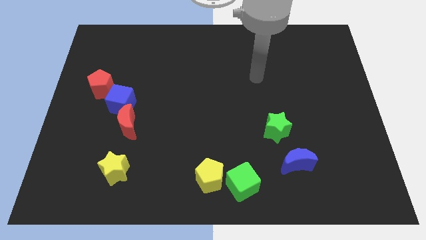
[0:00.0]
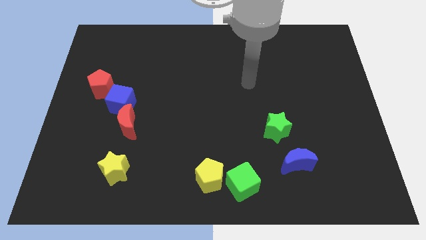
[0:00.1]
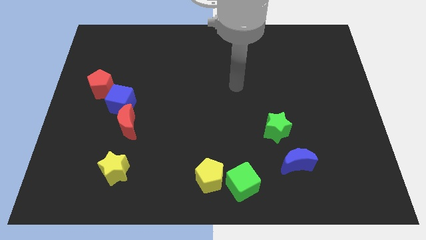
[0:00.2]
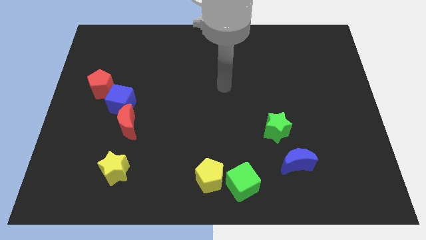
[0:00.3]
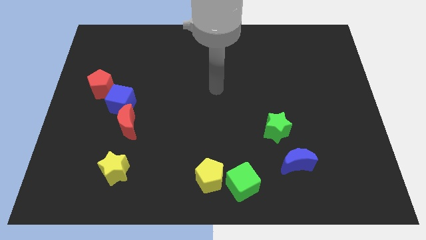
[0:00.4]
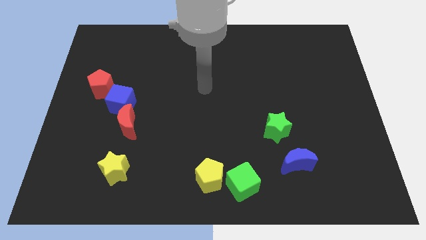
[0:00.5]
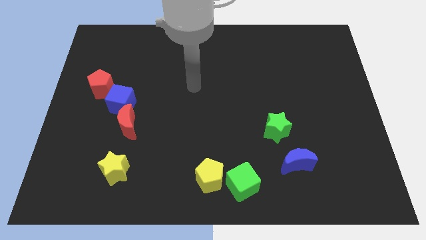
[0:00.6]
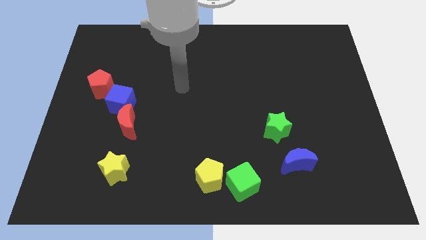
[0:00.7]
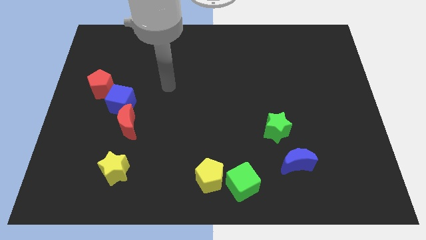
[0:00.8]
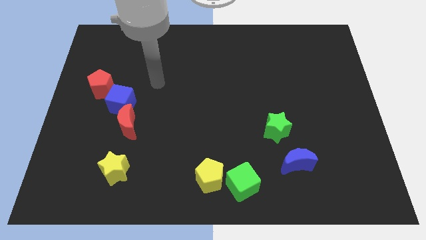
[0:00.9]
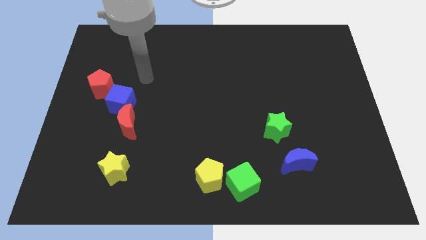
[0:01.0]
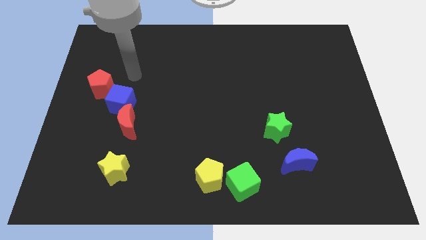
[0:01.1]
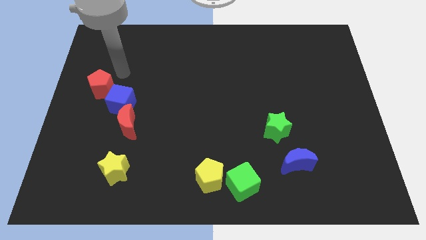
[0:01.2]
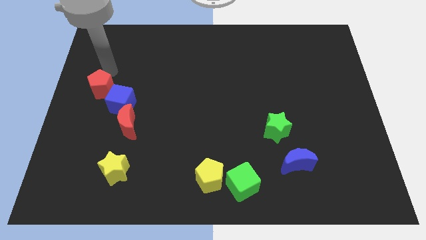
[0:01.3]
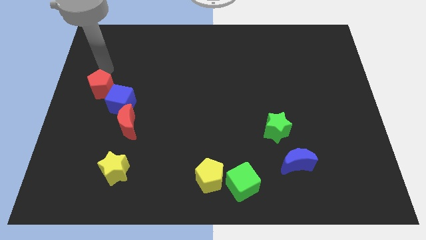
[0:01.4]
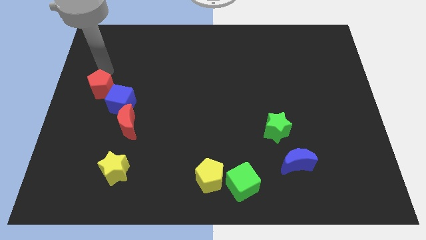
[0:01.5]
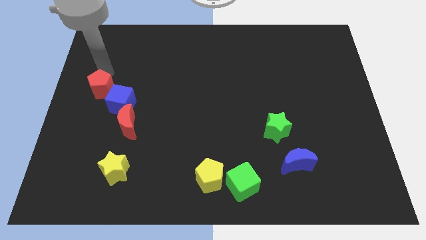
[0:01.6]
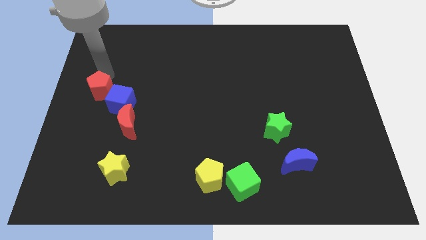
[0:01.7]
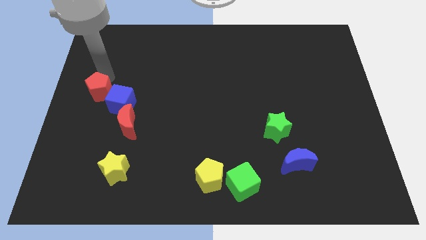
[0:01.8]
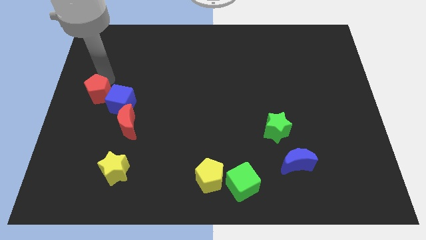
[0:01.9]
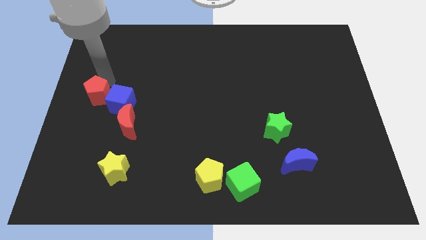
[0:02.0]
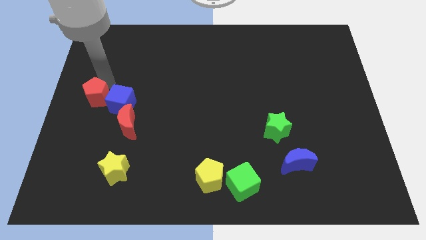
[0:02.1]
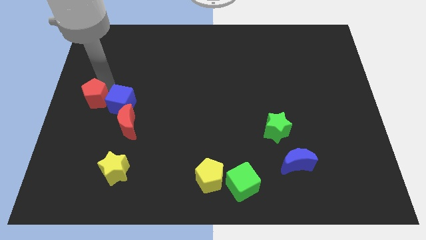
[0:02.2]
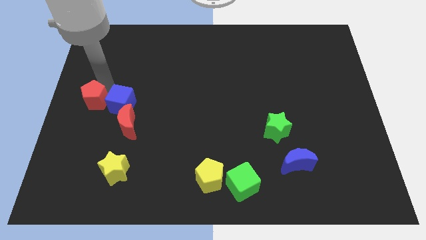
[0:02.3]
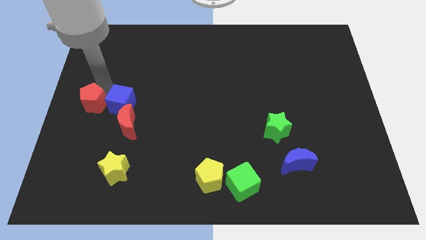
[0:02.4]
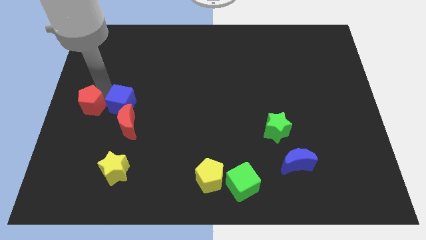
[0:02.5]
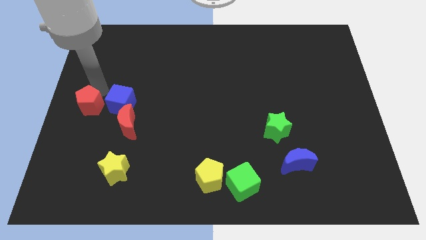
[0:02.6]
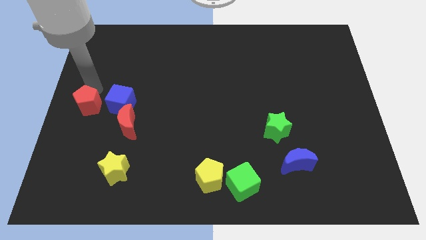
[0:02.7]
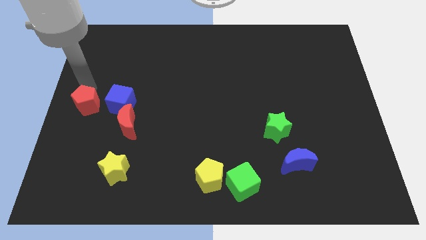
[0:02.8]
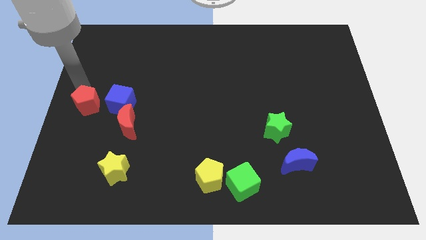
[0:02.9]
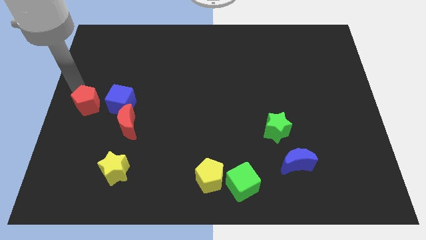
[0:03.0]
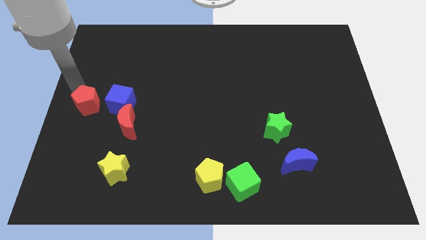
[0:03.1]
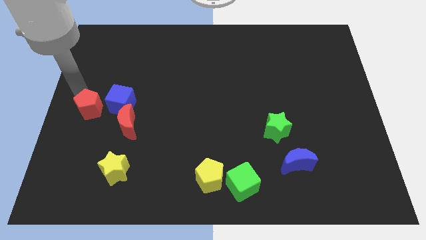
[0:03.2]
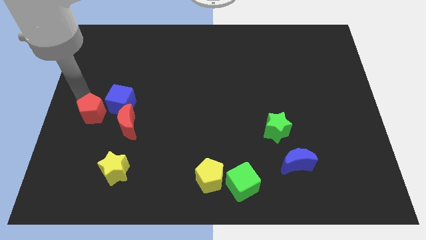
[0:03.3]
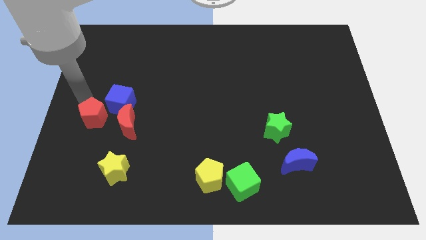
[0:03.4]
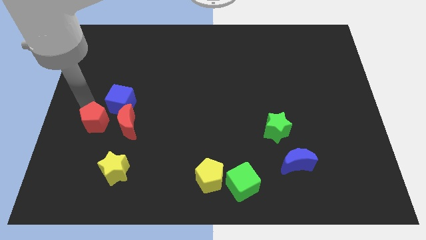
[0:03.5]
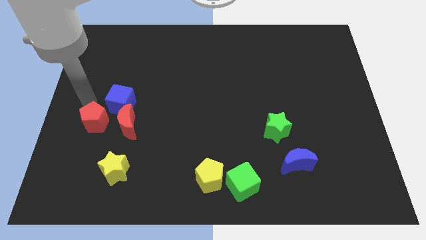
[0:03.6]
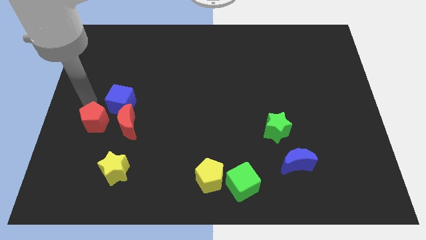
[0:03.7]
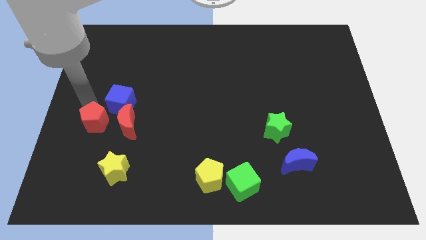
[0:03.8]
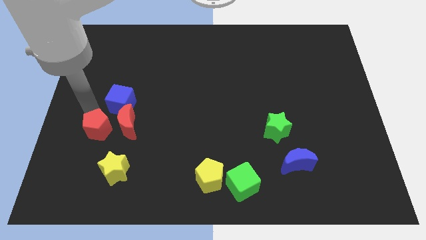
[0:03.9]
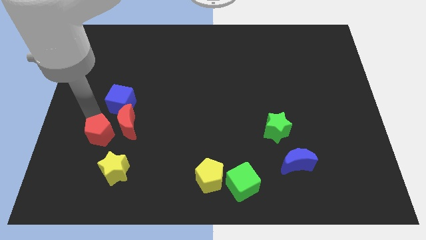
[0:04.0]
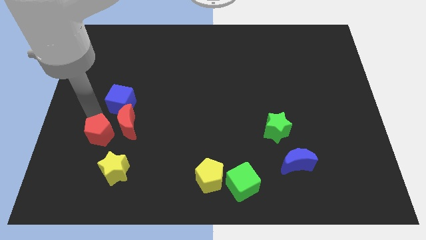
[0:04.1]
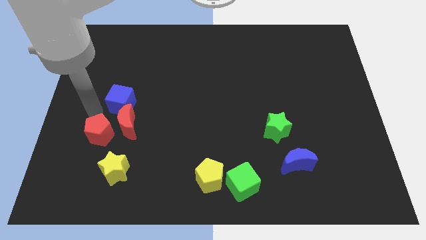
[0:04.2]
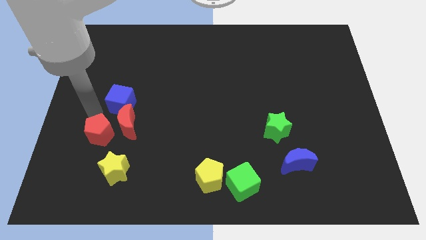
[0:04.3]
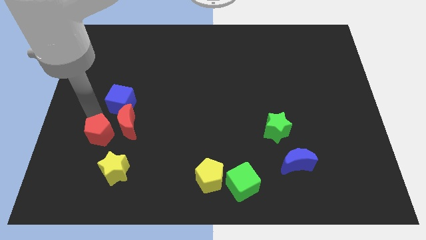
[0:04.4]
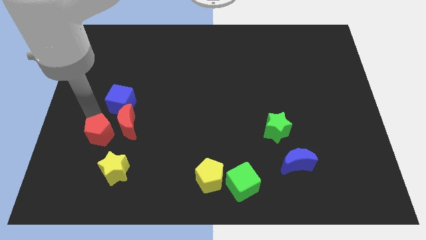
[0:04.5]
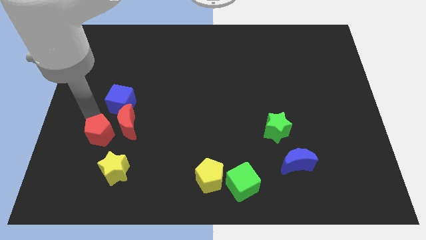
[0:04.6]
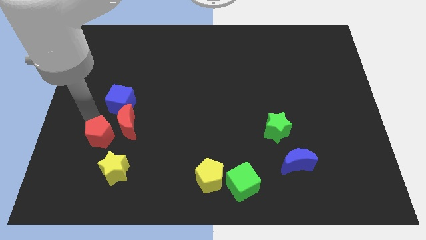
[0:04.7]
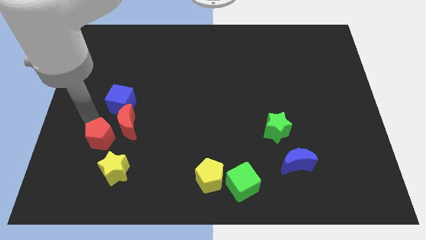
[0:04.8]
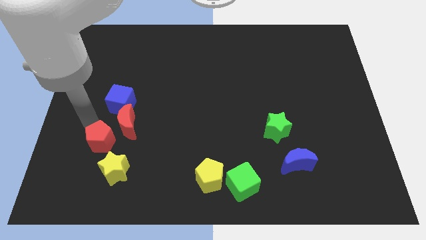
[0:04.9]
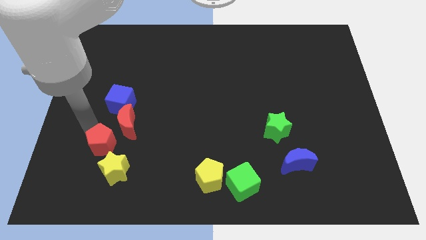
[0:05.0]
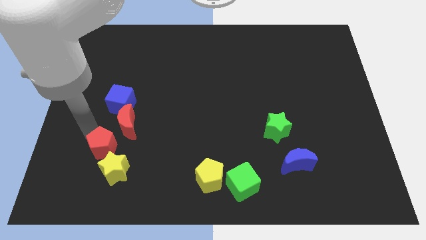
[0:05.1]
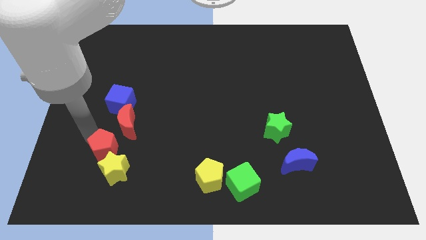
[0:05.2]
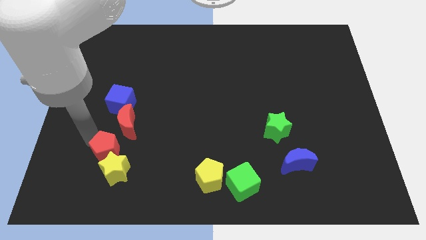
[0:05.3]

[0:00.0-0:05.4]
push the red pentagon towards the yellow star
